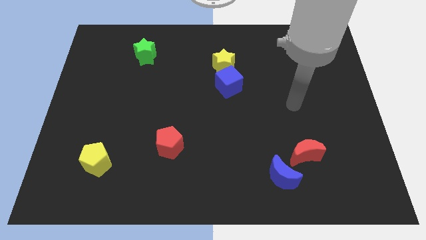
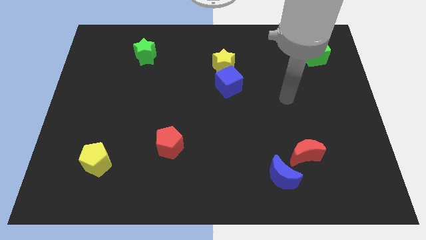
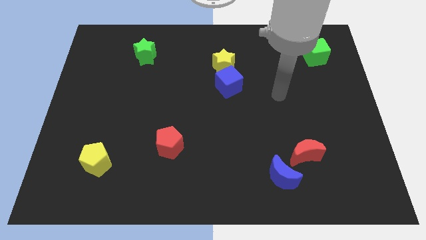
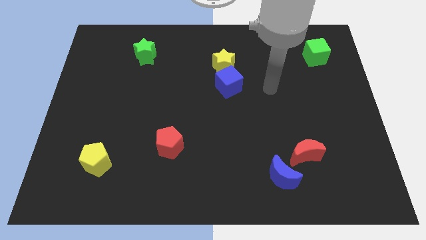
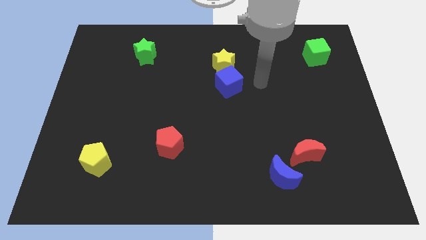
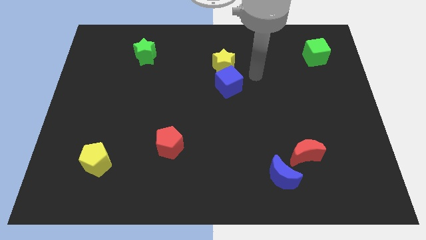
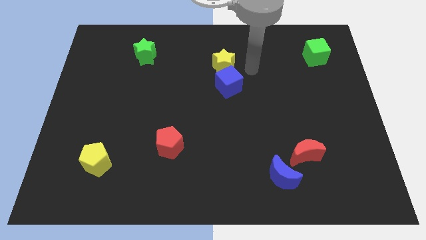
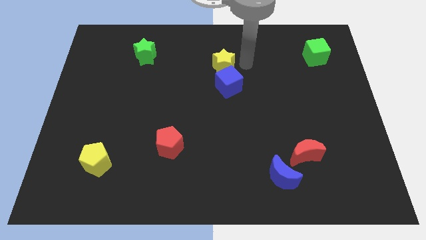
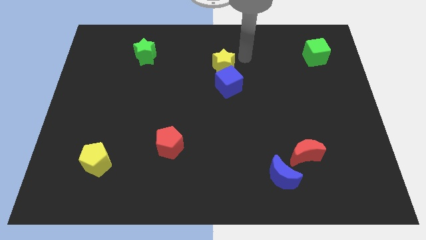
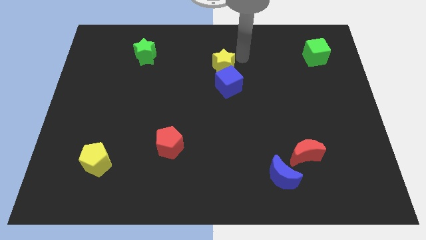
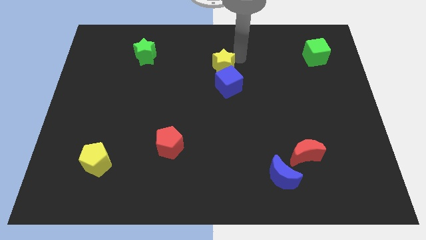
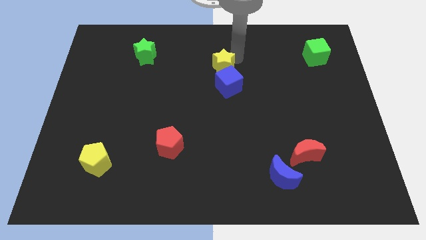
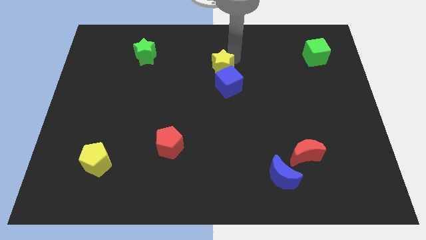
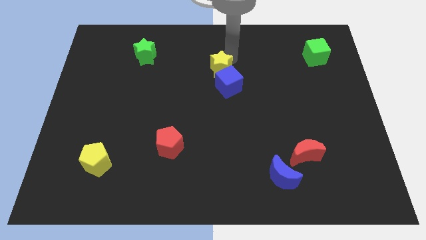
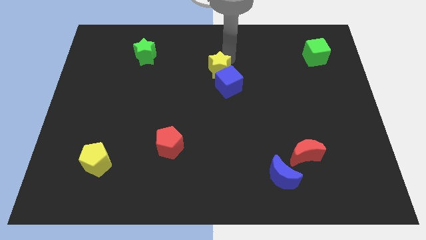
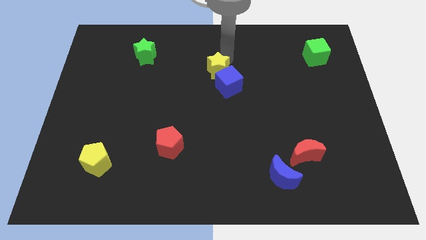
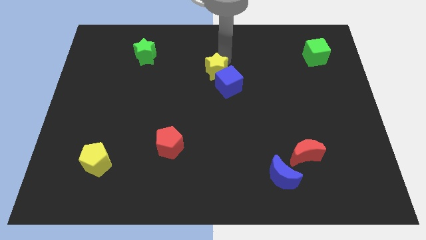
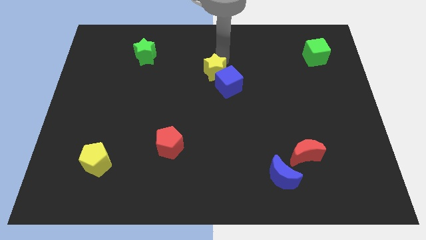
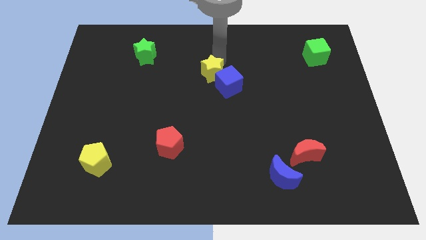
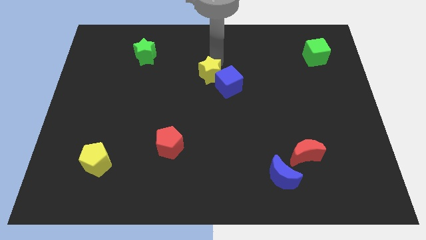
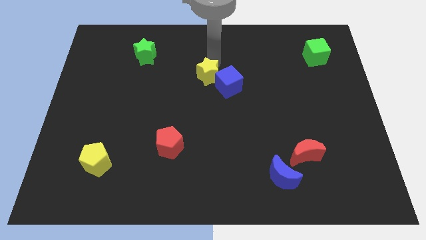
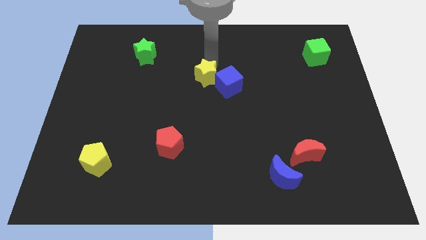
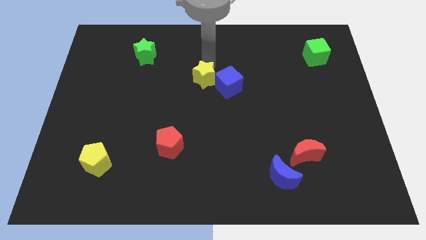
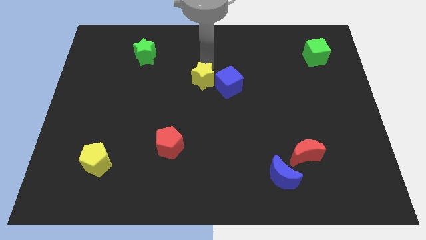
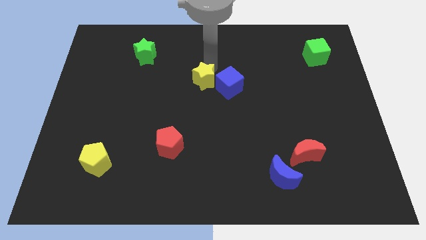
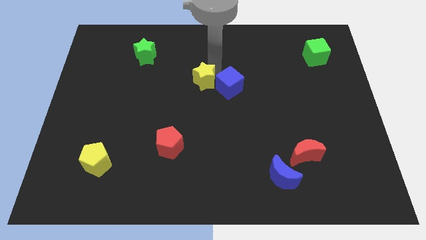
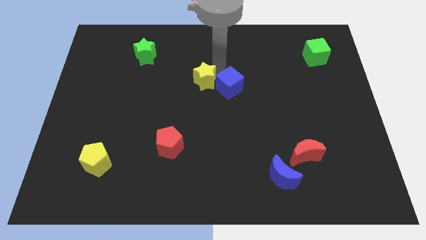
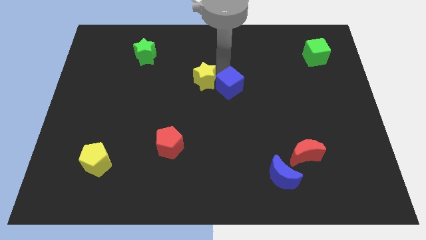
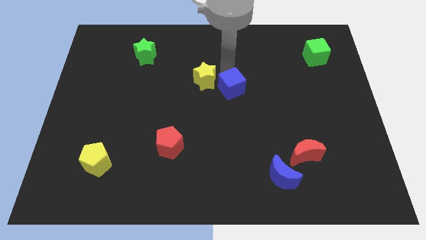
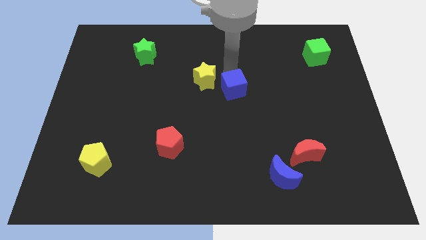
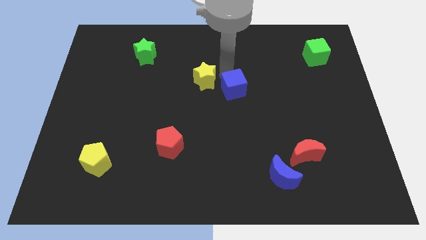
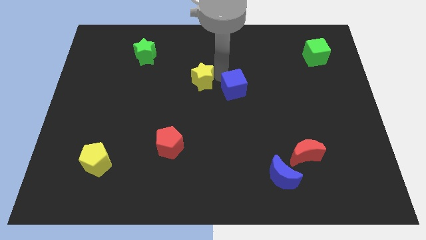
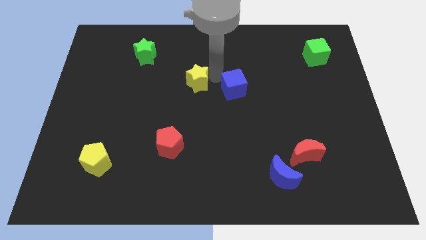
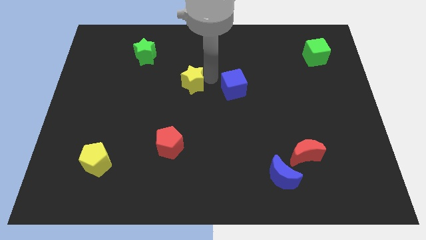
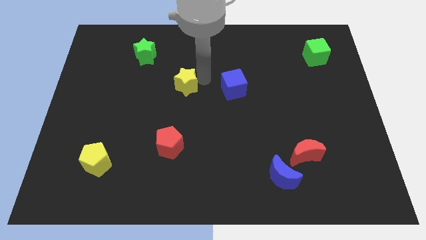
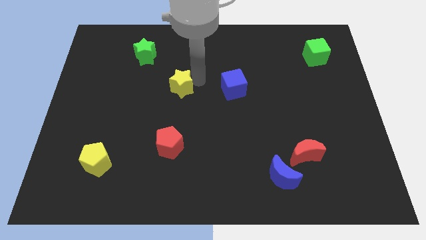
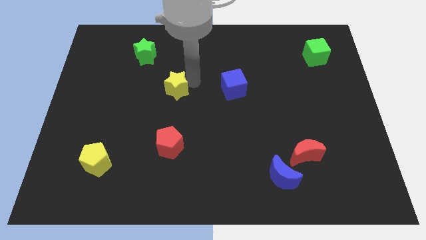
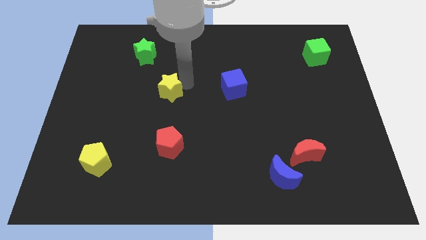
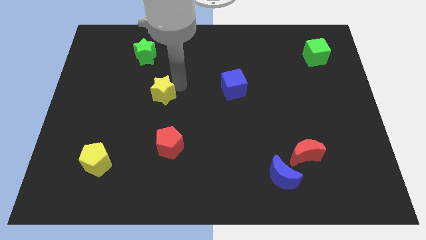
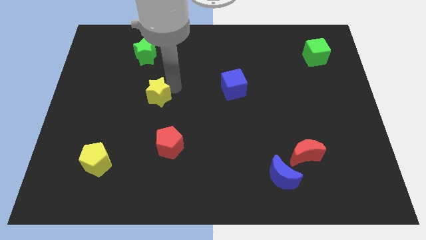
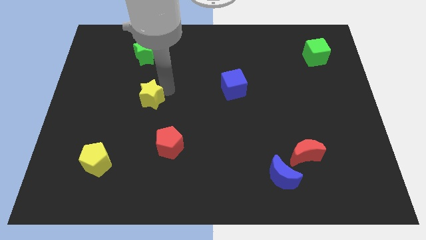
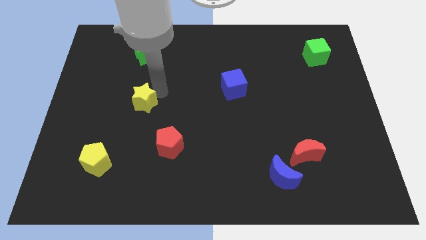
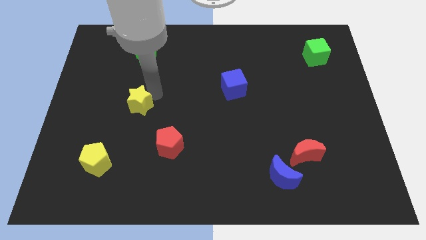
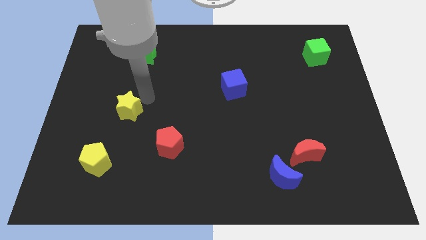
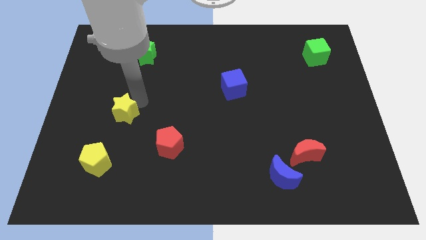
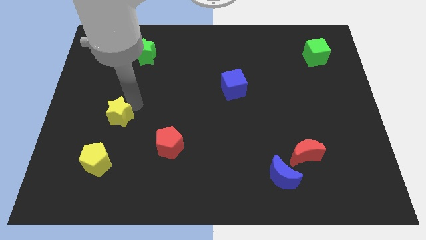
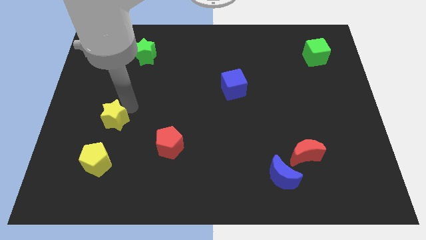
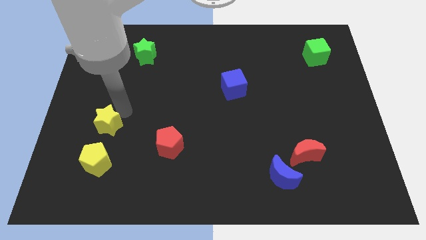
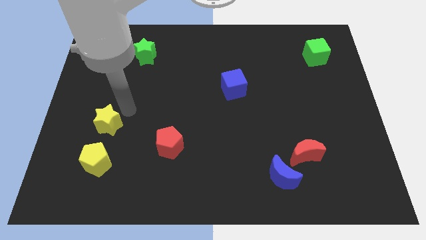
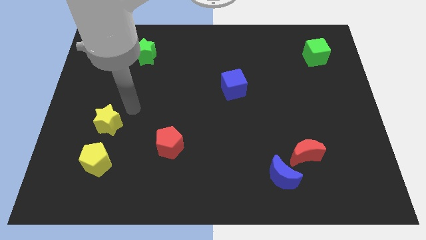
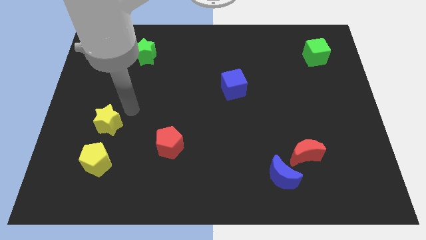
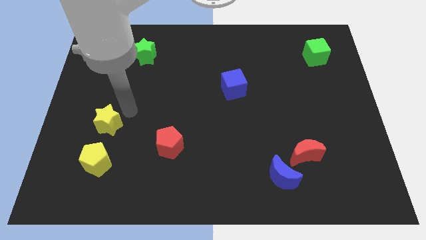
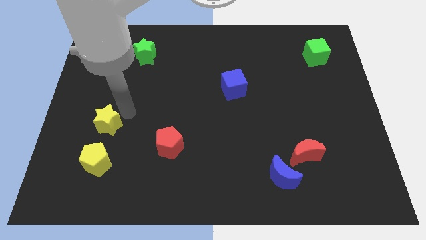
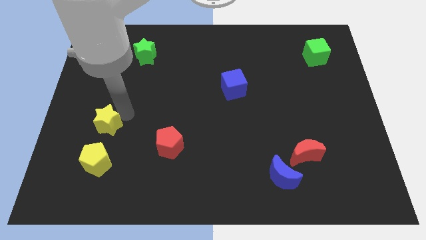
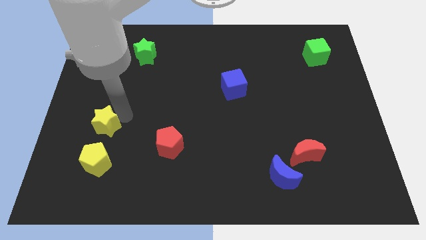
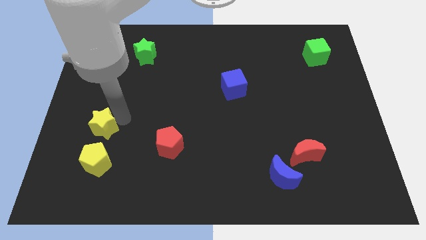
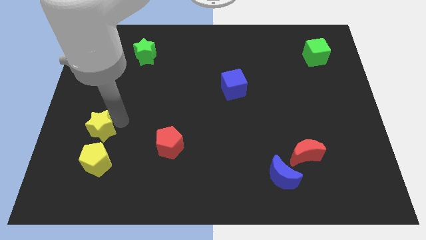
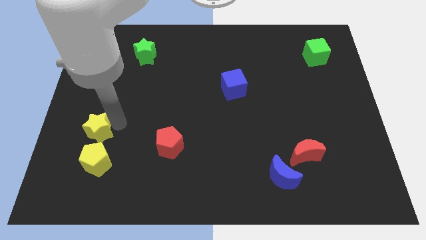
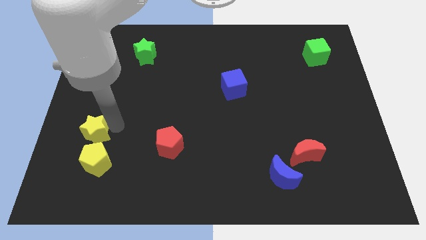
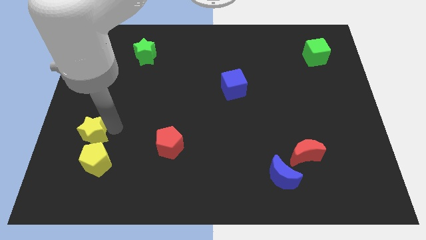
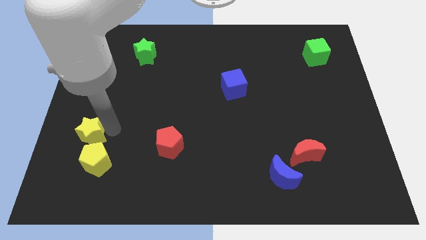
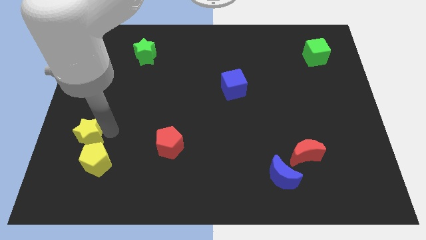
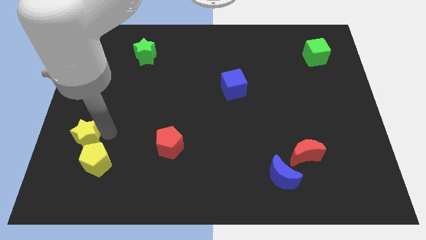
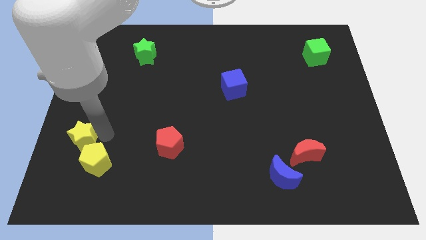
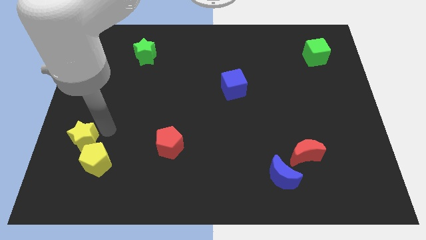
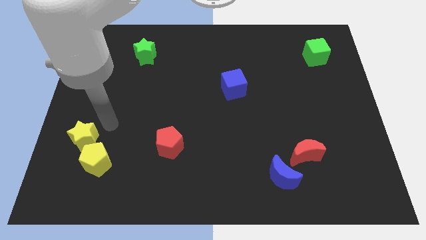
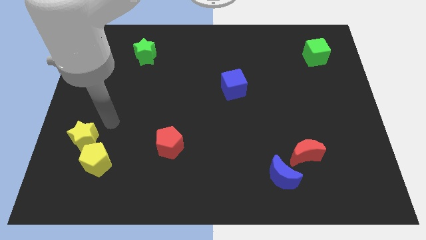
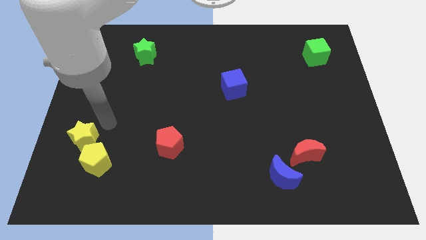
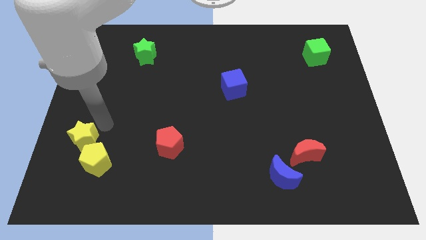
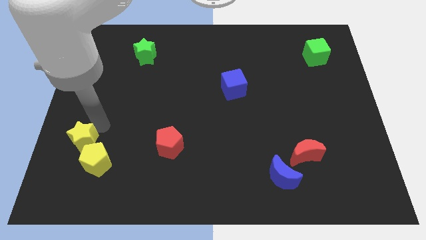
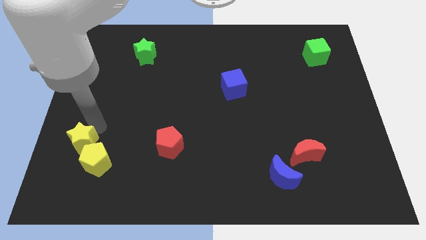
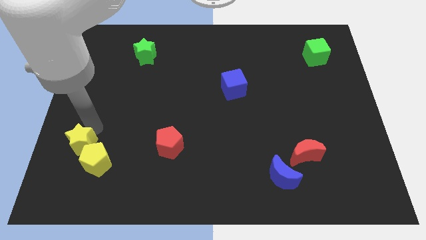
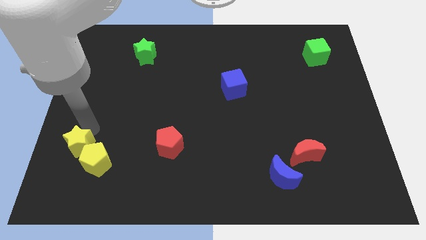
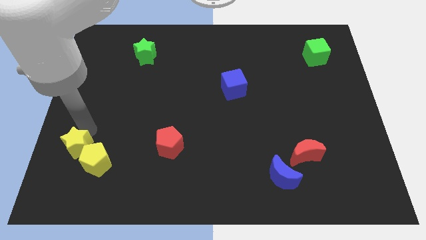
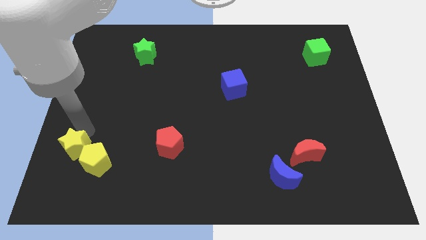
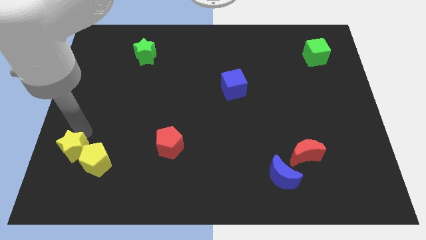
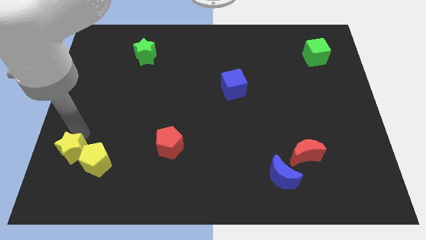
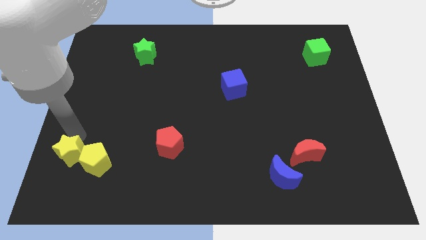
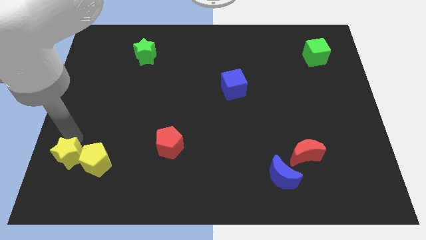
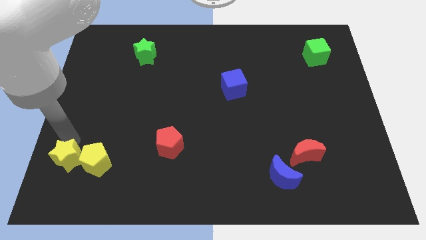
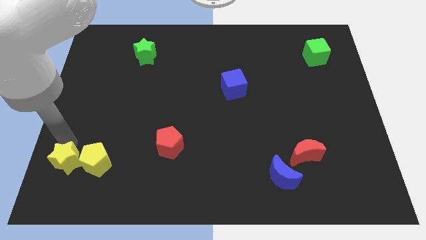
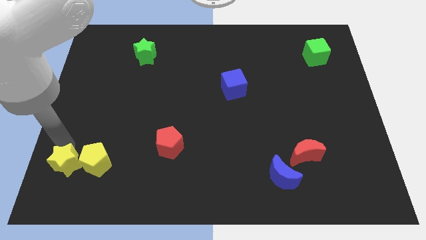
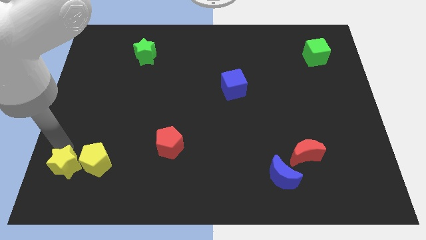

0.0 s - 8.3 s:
put the yellow star to the bottom left of the board
